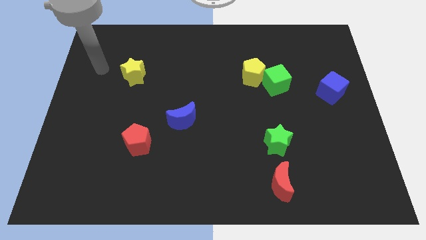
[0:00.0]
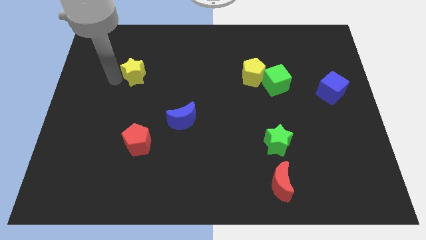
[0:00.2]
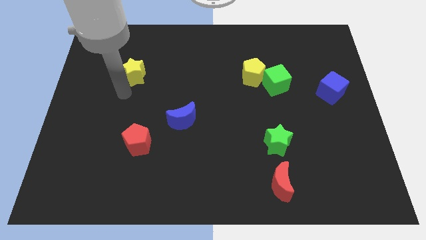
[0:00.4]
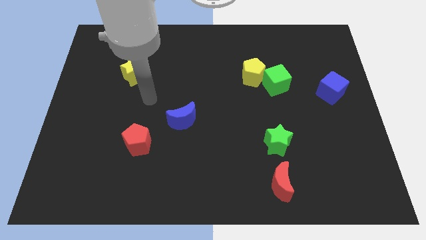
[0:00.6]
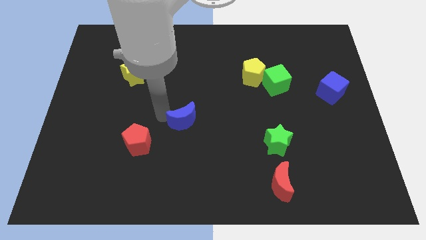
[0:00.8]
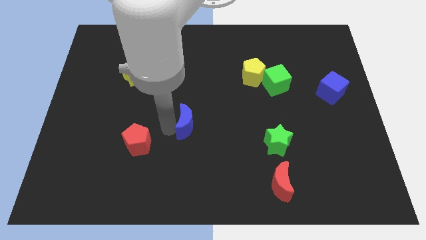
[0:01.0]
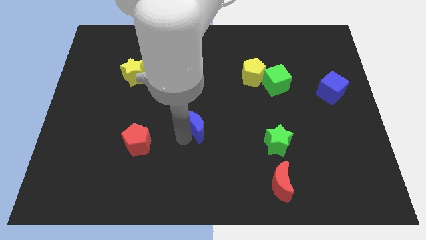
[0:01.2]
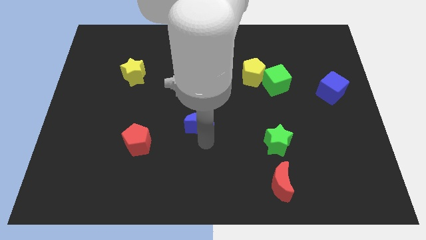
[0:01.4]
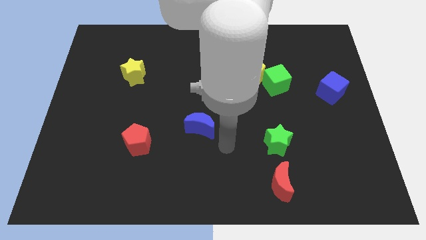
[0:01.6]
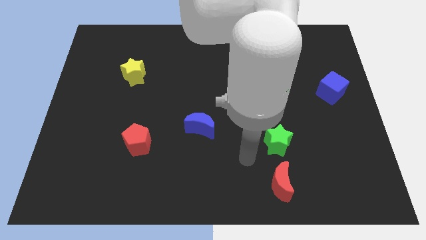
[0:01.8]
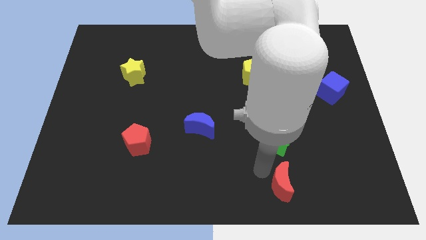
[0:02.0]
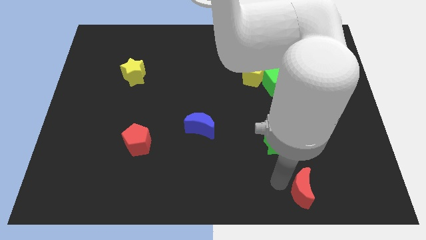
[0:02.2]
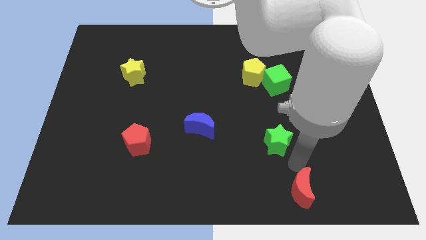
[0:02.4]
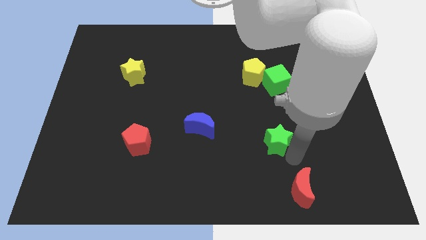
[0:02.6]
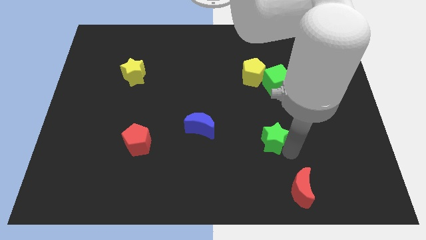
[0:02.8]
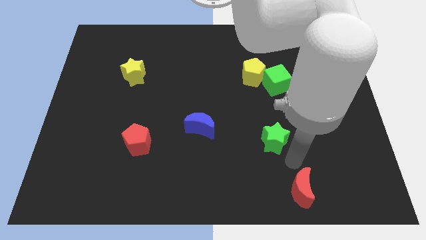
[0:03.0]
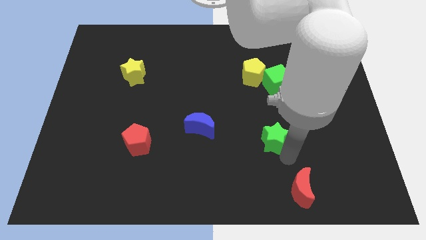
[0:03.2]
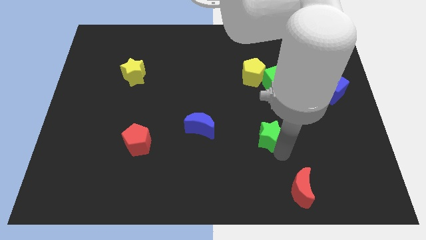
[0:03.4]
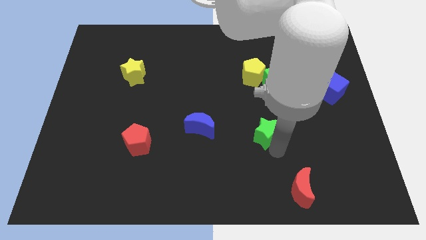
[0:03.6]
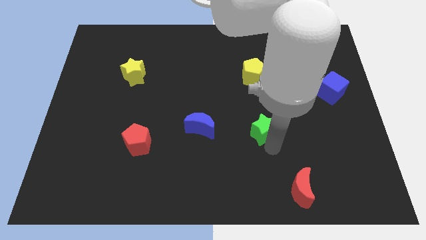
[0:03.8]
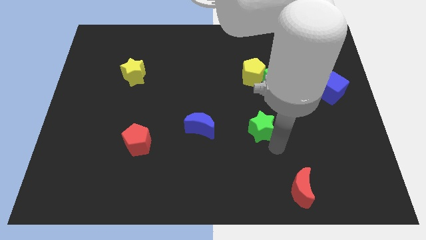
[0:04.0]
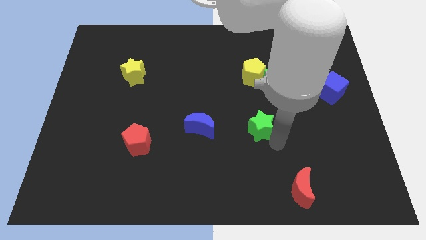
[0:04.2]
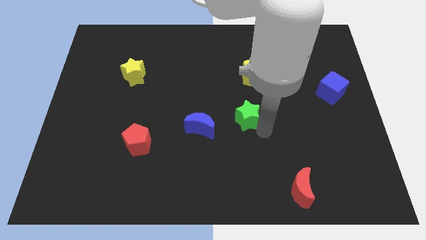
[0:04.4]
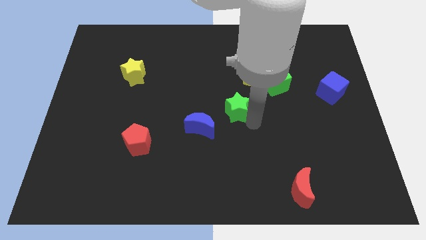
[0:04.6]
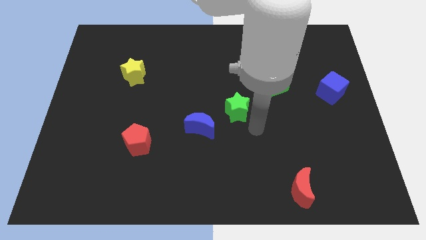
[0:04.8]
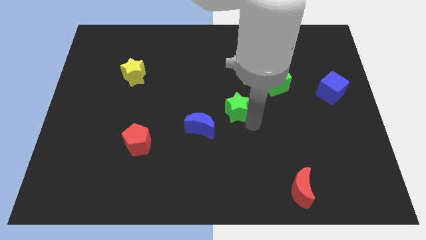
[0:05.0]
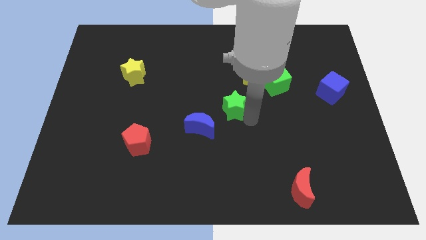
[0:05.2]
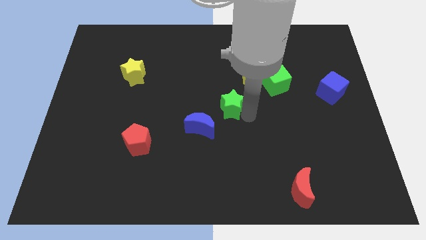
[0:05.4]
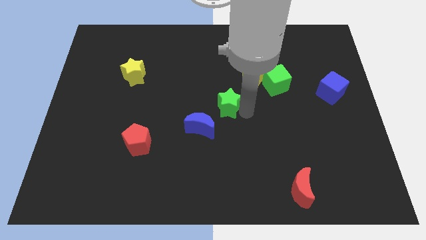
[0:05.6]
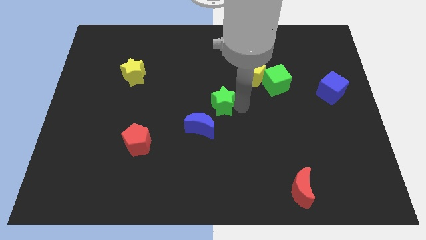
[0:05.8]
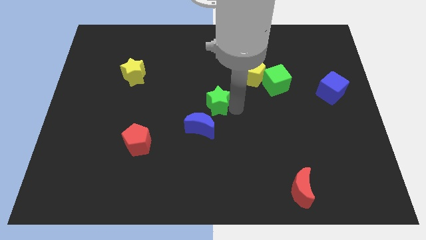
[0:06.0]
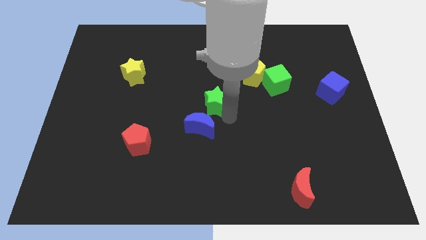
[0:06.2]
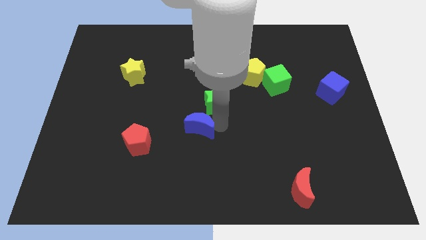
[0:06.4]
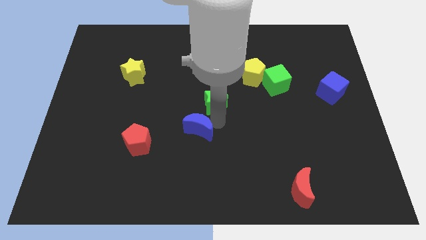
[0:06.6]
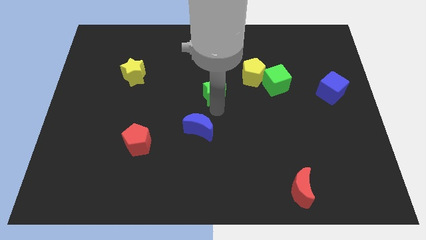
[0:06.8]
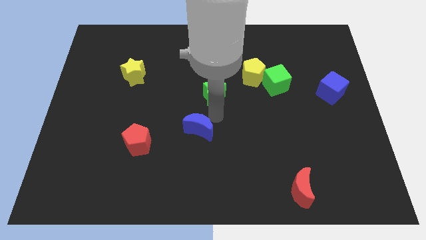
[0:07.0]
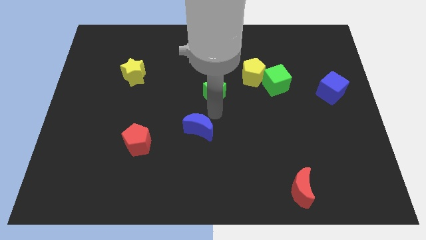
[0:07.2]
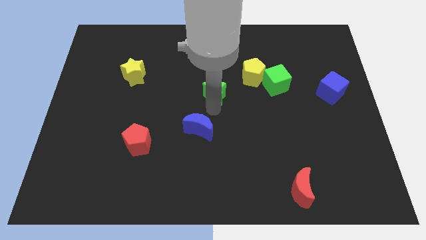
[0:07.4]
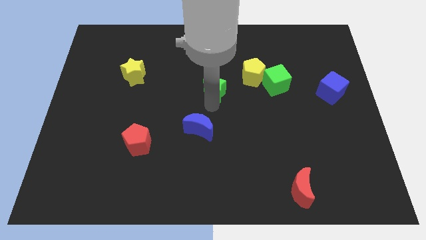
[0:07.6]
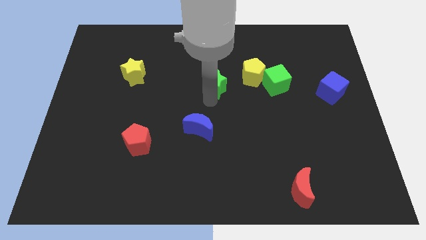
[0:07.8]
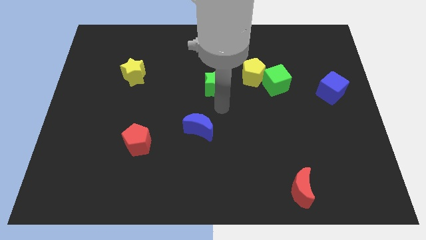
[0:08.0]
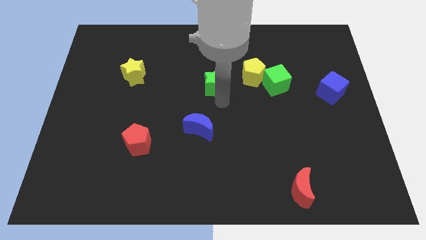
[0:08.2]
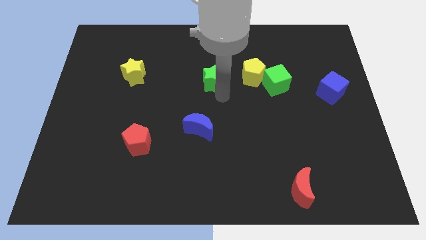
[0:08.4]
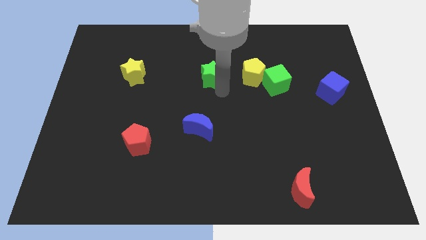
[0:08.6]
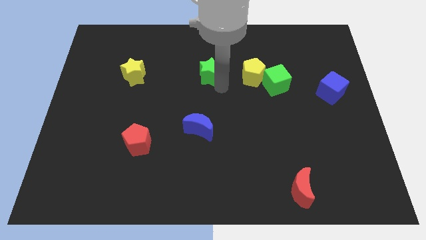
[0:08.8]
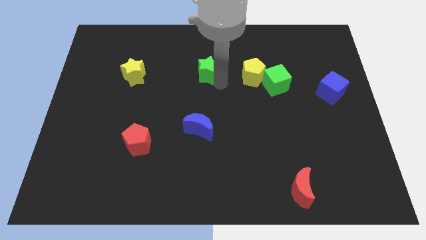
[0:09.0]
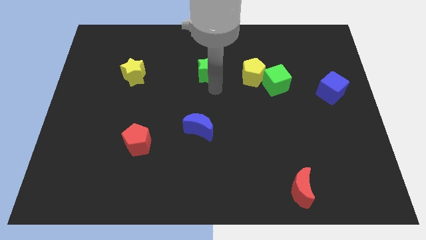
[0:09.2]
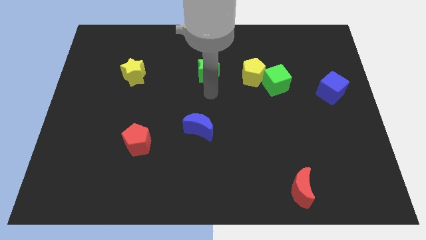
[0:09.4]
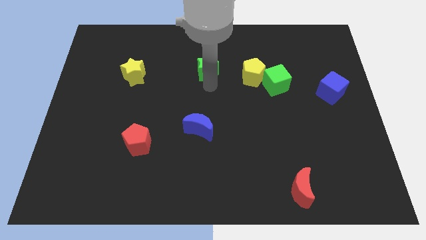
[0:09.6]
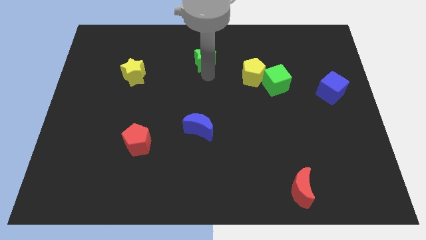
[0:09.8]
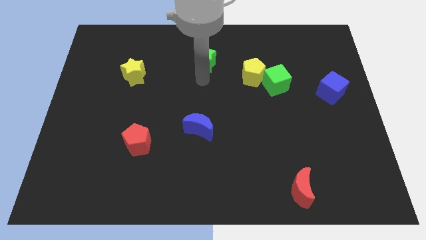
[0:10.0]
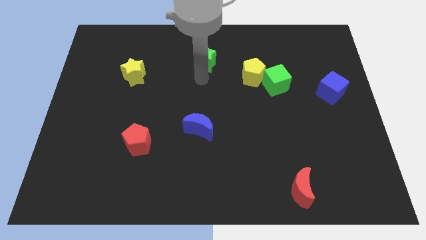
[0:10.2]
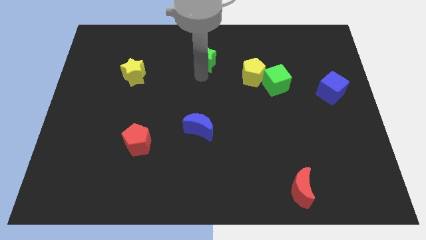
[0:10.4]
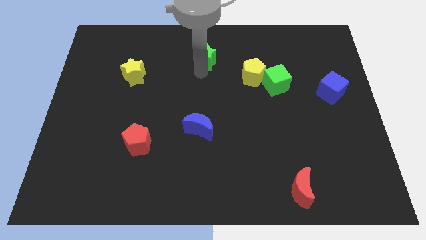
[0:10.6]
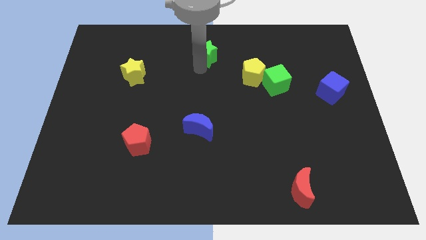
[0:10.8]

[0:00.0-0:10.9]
put the green star to the towards your base

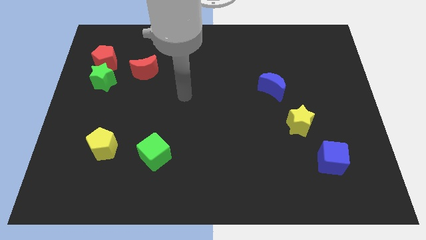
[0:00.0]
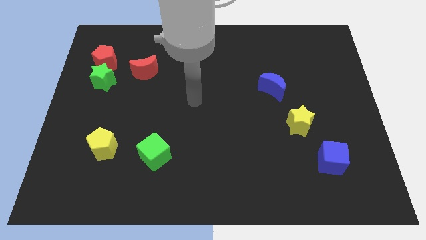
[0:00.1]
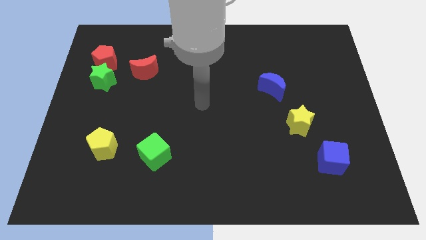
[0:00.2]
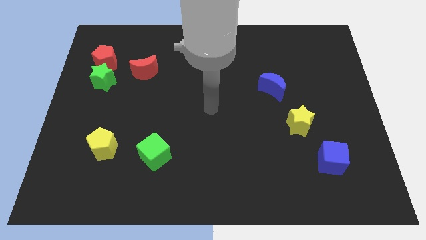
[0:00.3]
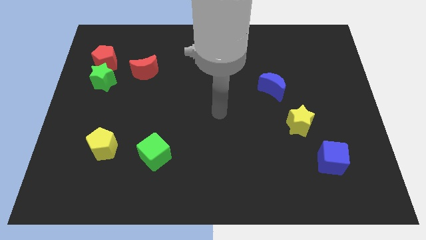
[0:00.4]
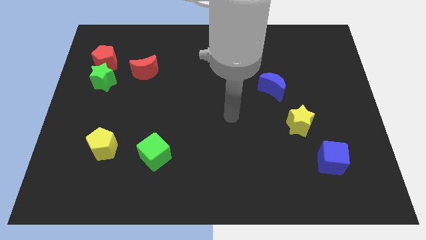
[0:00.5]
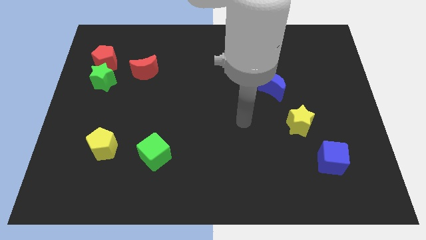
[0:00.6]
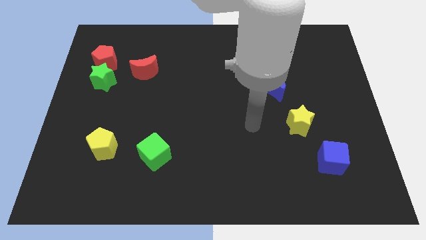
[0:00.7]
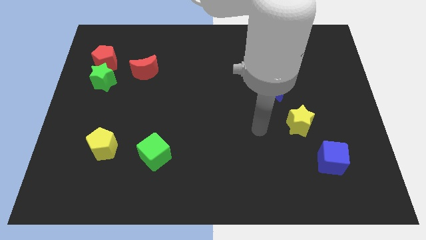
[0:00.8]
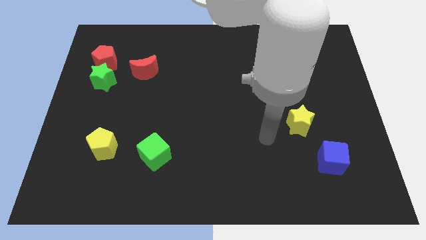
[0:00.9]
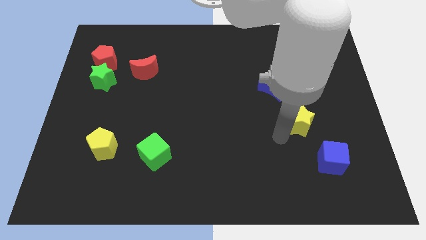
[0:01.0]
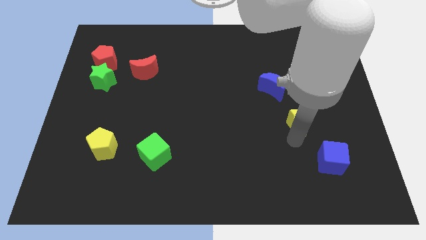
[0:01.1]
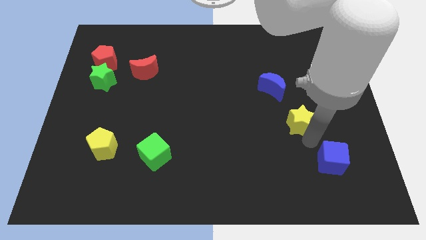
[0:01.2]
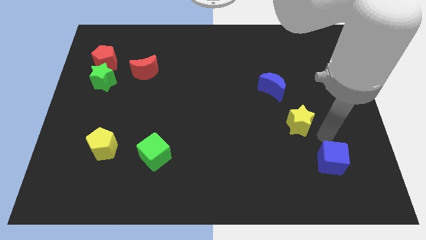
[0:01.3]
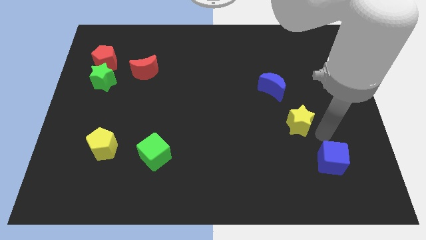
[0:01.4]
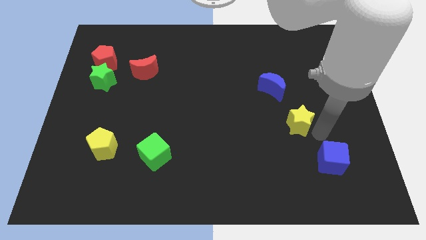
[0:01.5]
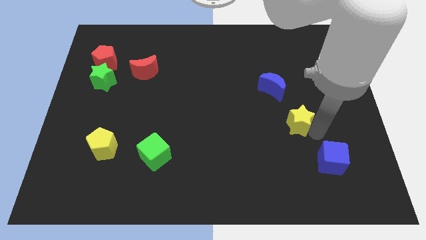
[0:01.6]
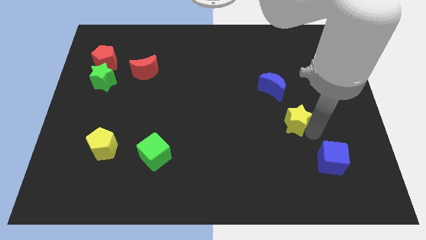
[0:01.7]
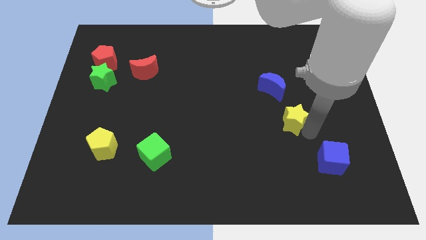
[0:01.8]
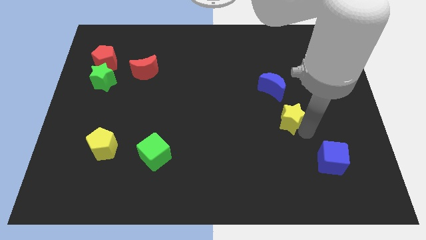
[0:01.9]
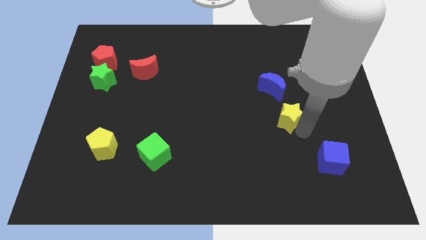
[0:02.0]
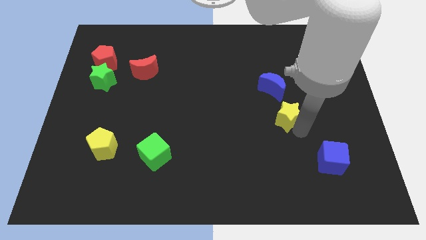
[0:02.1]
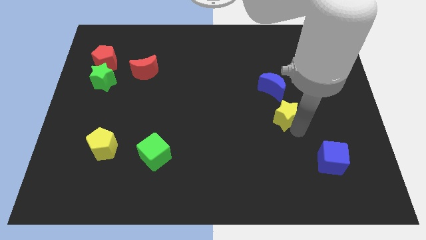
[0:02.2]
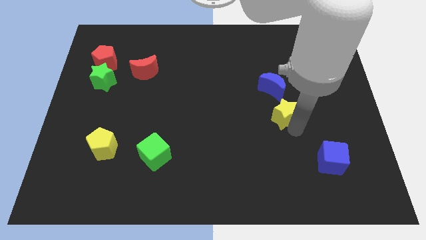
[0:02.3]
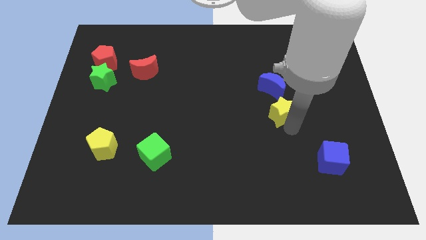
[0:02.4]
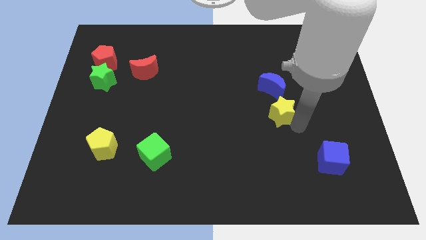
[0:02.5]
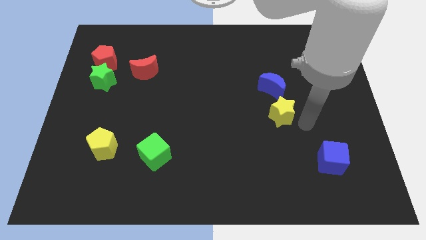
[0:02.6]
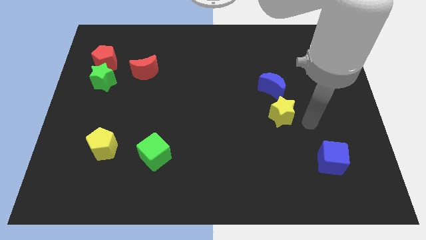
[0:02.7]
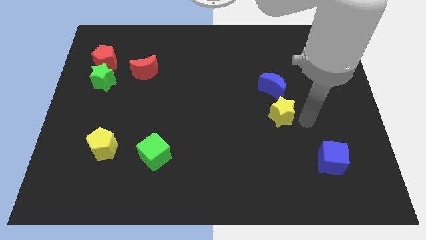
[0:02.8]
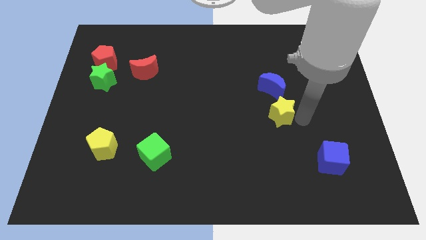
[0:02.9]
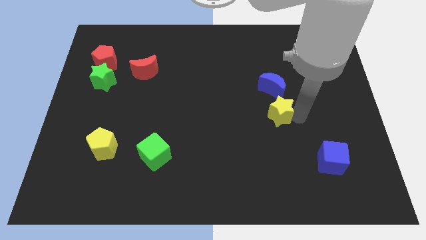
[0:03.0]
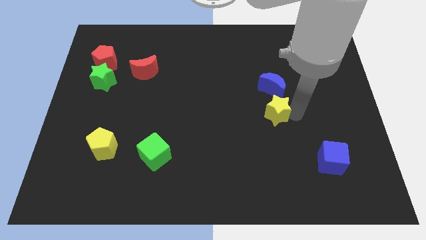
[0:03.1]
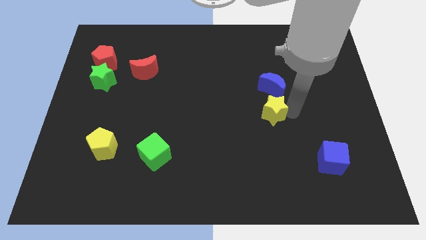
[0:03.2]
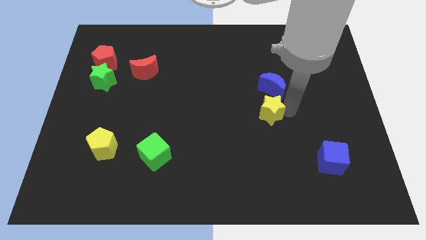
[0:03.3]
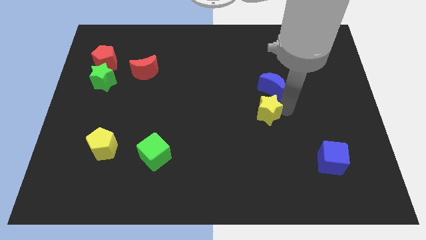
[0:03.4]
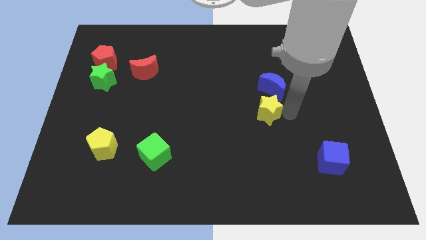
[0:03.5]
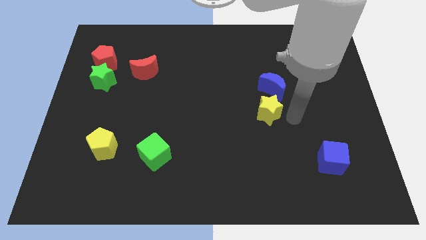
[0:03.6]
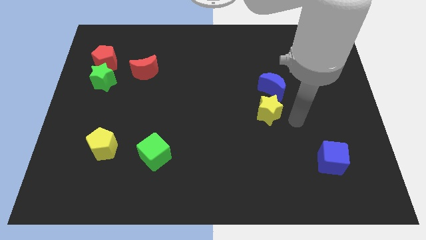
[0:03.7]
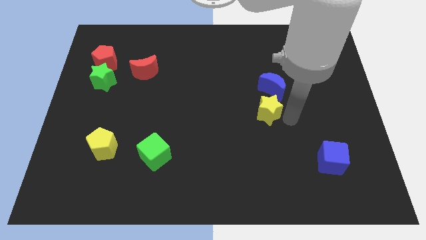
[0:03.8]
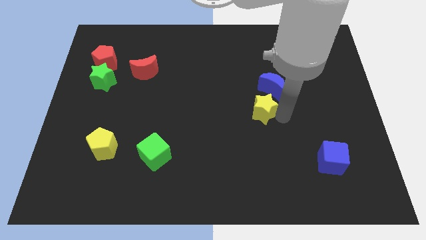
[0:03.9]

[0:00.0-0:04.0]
move the yellow star to the center of the board
